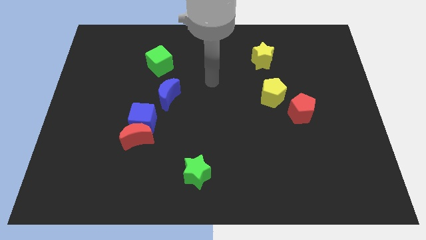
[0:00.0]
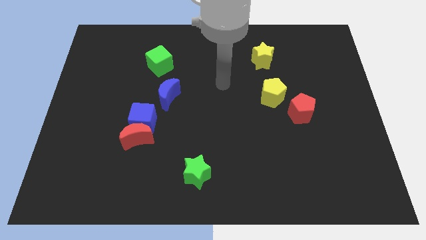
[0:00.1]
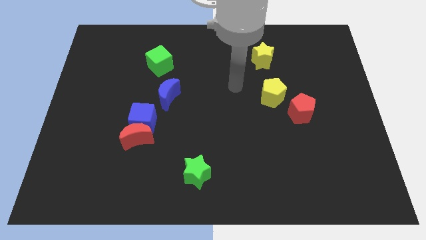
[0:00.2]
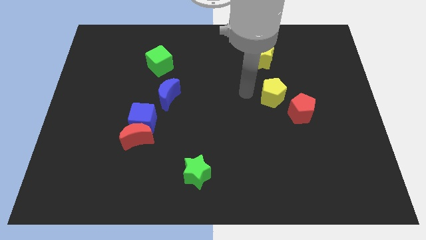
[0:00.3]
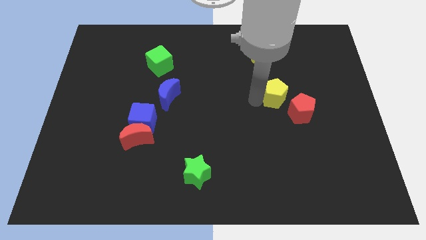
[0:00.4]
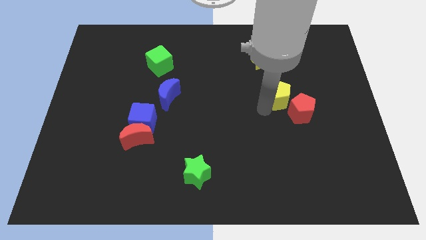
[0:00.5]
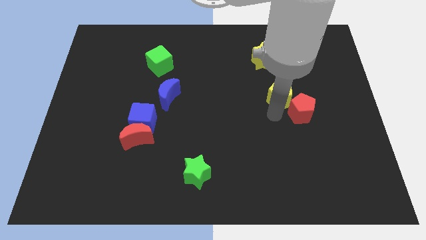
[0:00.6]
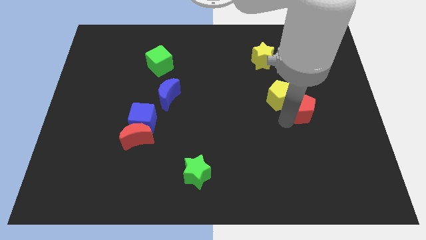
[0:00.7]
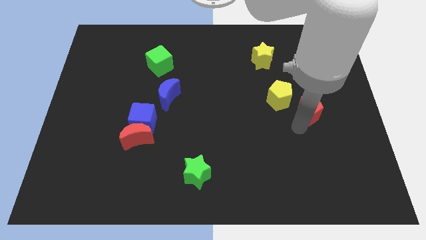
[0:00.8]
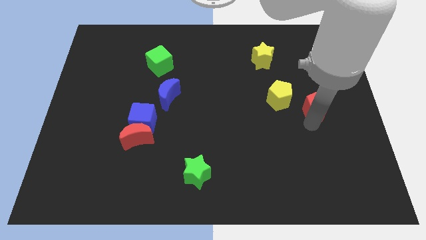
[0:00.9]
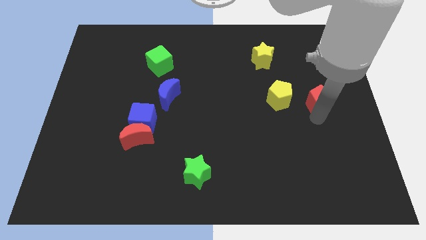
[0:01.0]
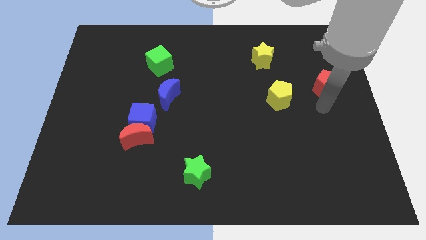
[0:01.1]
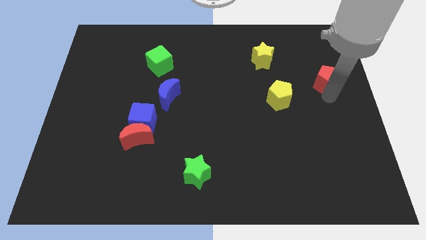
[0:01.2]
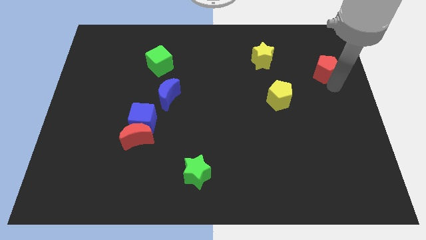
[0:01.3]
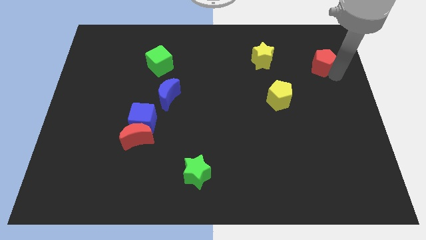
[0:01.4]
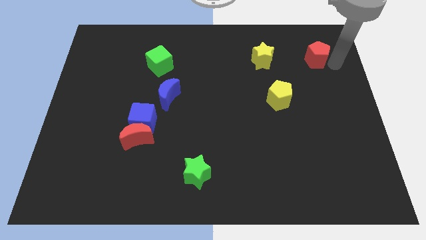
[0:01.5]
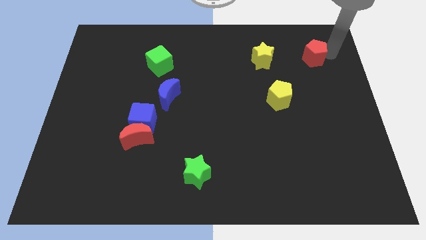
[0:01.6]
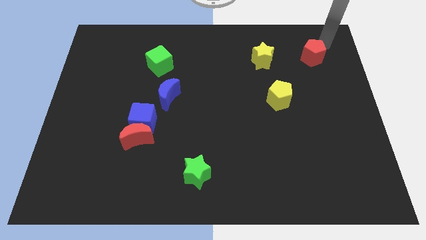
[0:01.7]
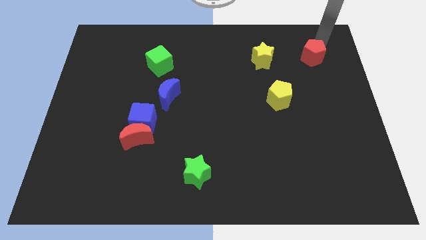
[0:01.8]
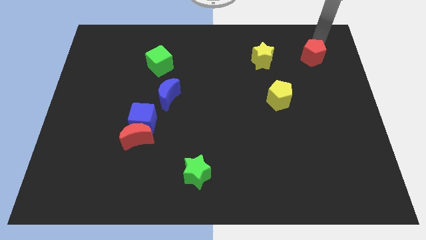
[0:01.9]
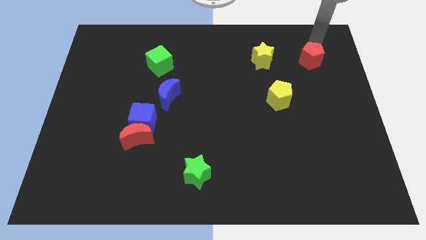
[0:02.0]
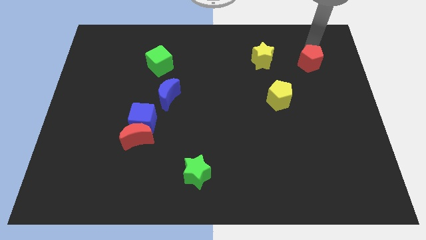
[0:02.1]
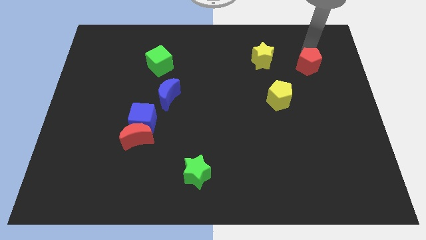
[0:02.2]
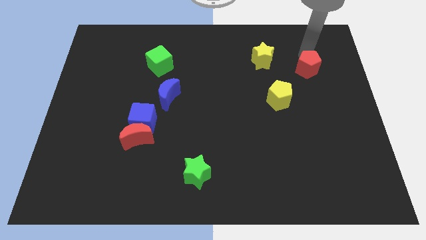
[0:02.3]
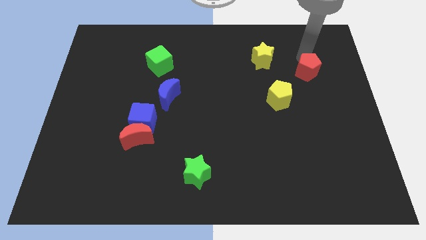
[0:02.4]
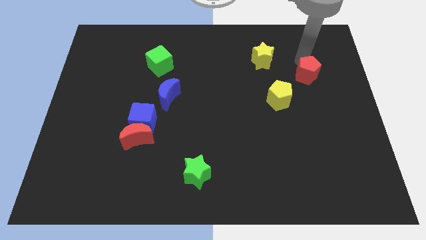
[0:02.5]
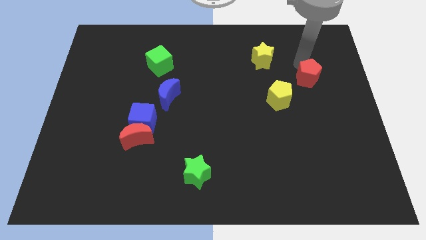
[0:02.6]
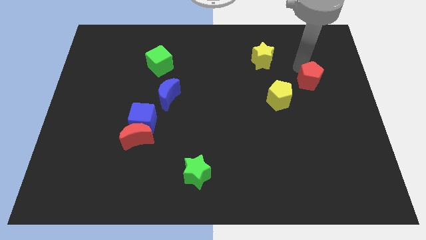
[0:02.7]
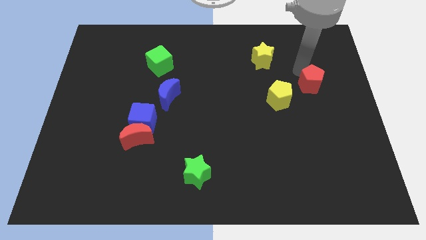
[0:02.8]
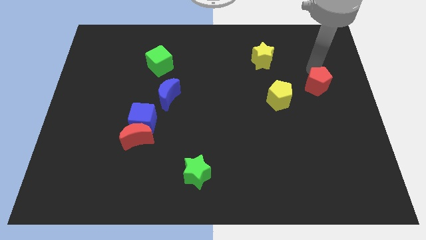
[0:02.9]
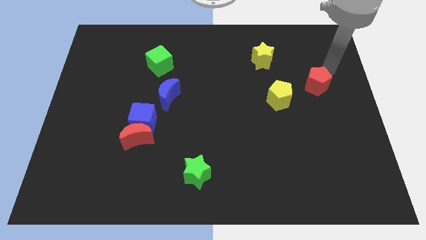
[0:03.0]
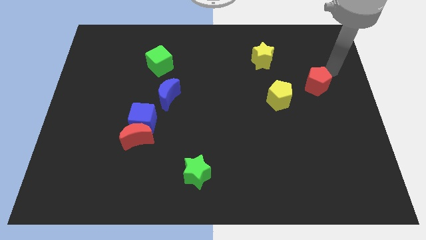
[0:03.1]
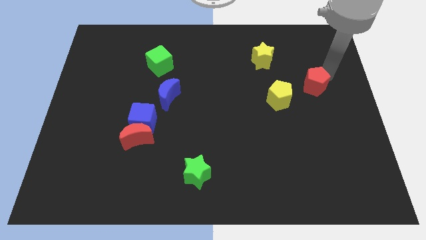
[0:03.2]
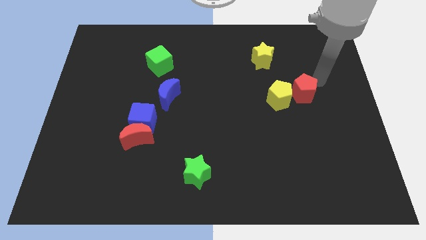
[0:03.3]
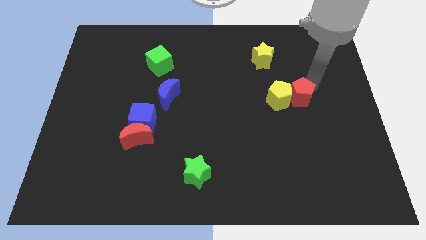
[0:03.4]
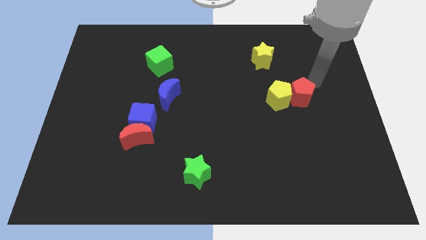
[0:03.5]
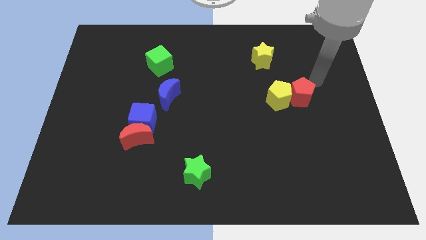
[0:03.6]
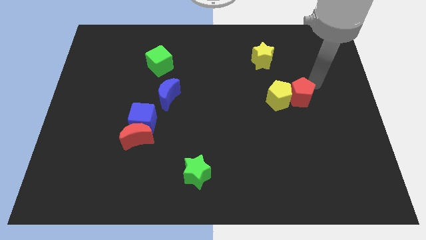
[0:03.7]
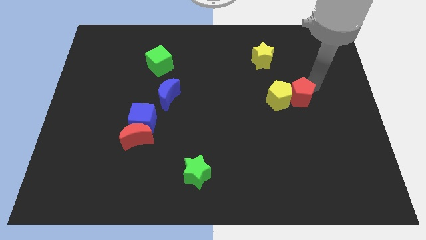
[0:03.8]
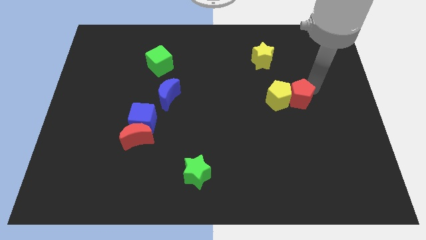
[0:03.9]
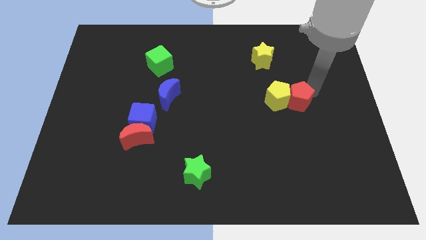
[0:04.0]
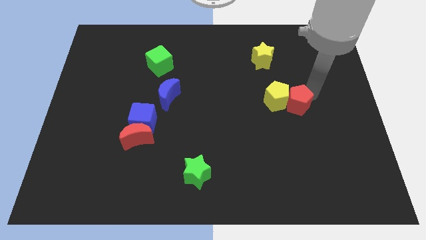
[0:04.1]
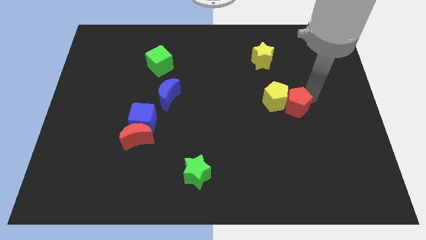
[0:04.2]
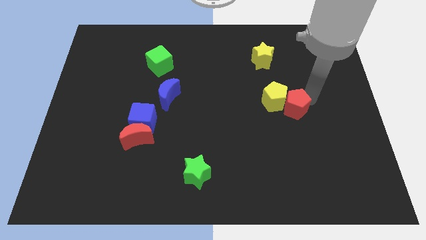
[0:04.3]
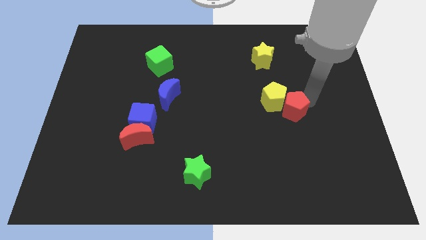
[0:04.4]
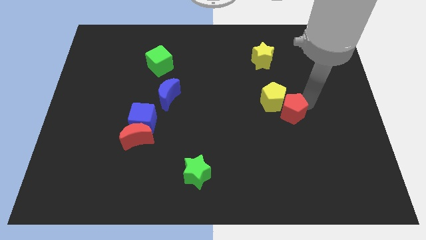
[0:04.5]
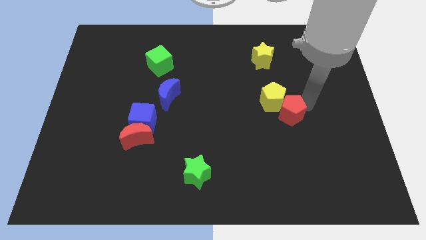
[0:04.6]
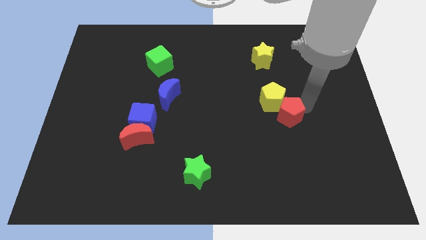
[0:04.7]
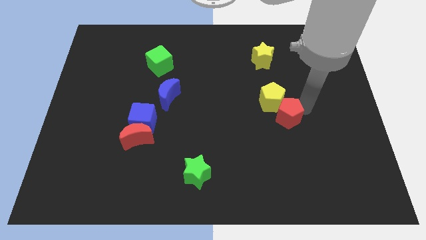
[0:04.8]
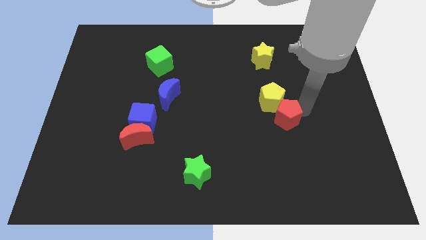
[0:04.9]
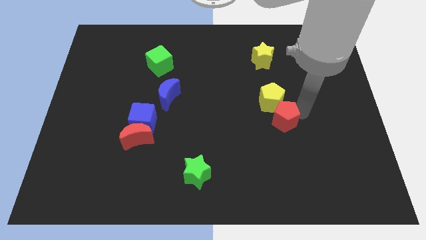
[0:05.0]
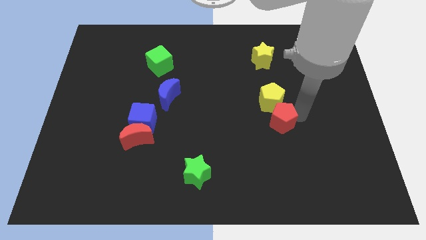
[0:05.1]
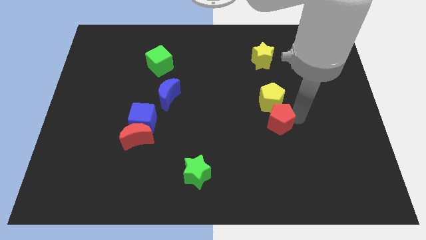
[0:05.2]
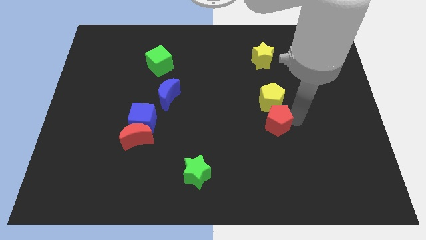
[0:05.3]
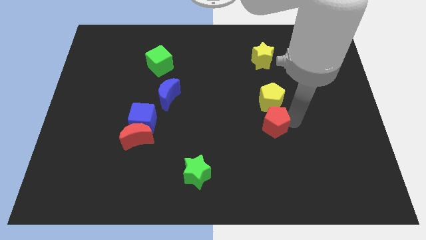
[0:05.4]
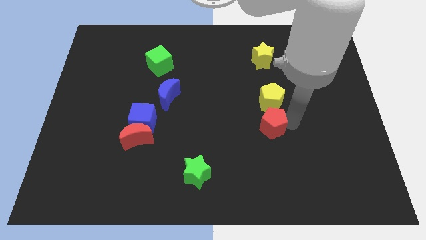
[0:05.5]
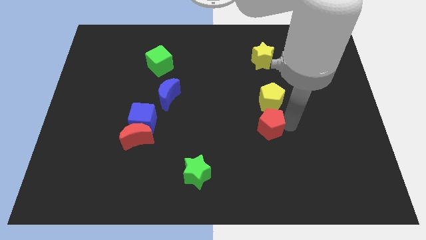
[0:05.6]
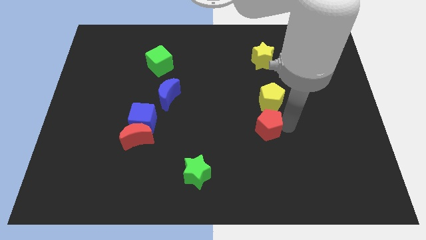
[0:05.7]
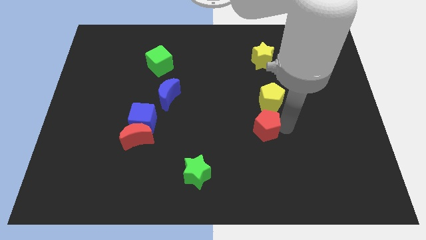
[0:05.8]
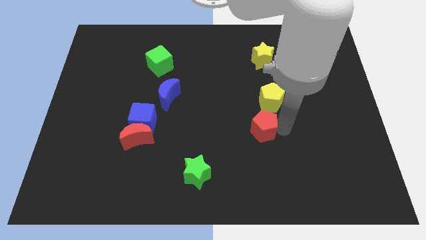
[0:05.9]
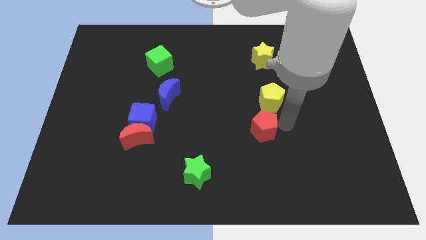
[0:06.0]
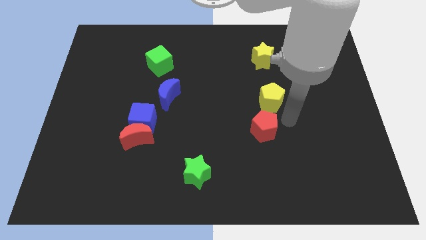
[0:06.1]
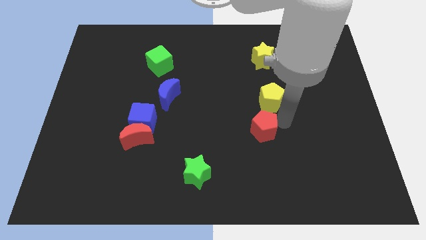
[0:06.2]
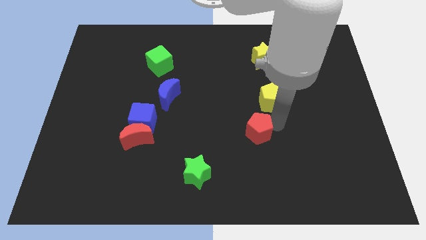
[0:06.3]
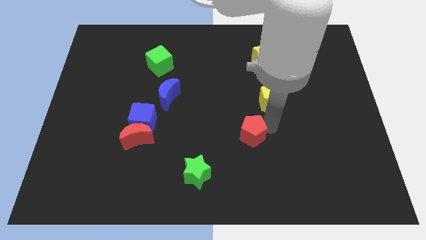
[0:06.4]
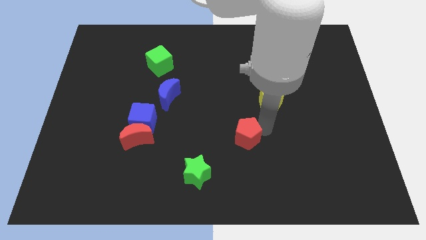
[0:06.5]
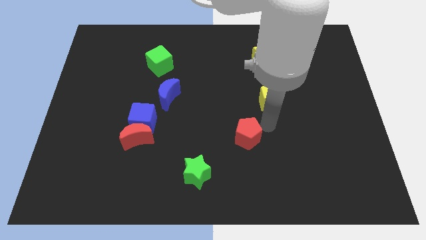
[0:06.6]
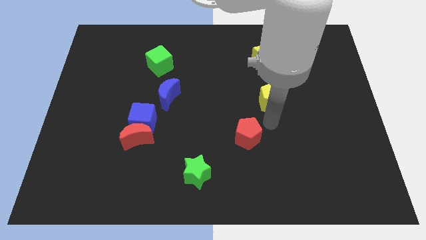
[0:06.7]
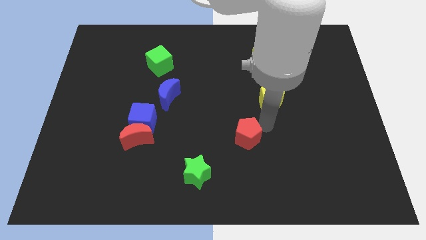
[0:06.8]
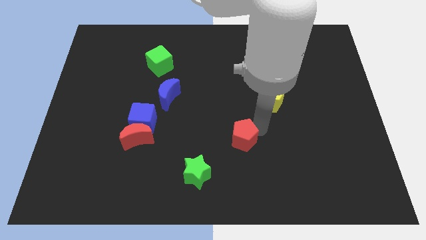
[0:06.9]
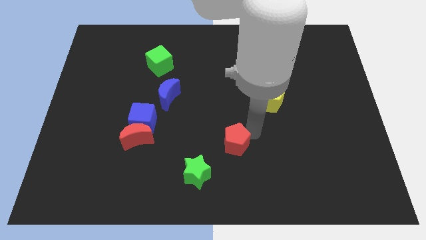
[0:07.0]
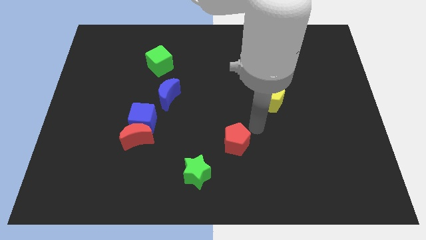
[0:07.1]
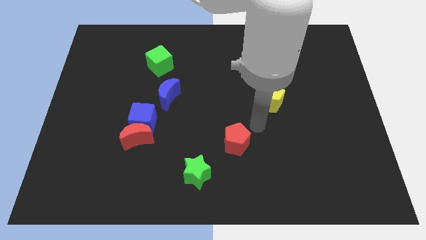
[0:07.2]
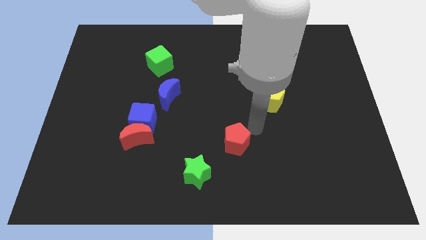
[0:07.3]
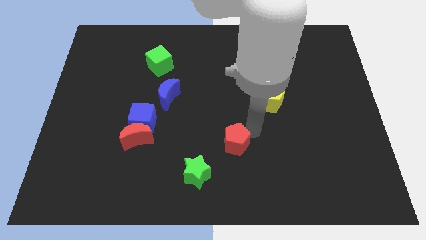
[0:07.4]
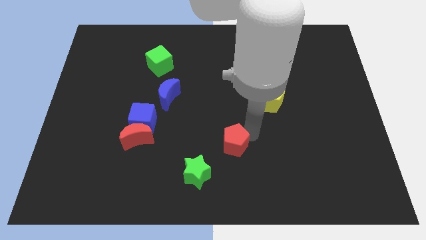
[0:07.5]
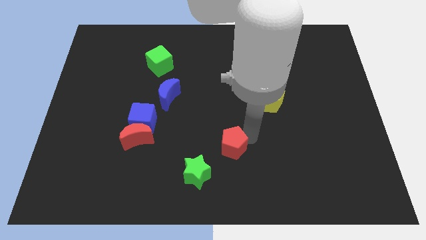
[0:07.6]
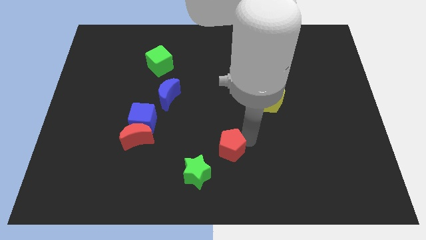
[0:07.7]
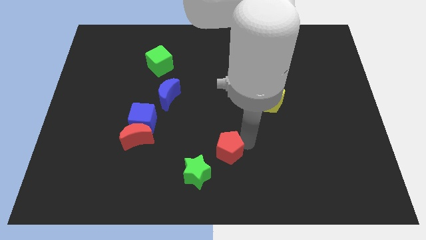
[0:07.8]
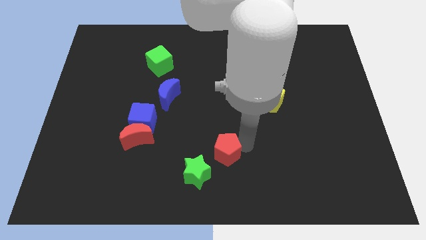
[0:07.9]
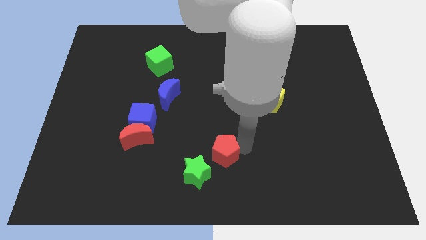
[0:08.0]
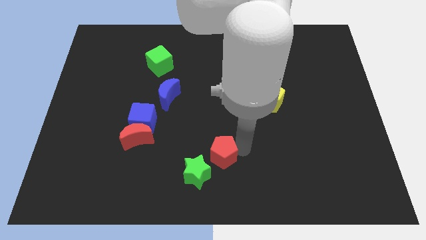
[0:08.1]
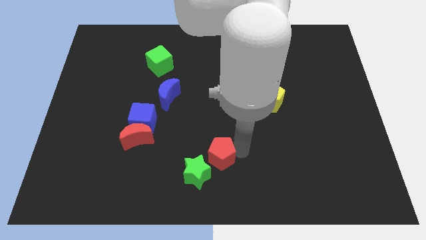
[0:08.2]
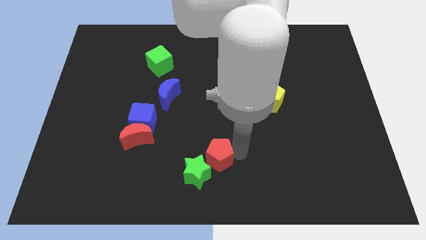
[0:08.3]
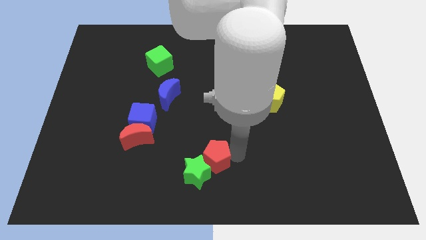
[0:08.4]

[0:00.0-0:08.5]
push the red pentagon towards the green star
